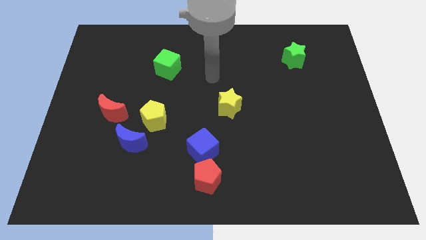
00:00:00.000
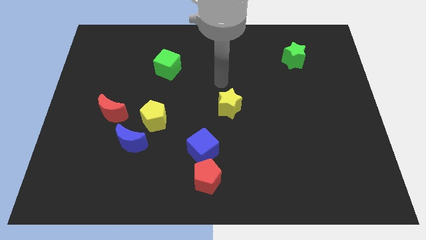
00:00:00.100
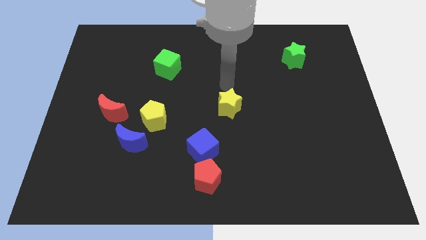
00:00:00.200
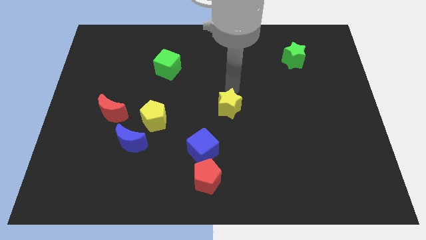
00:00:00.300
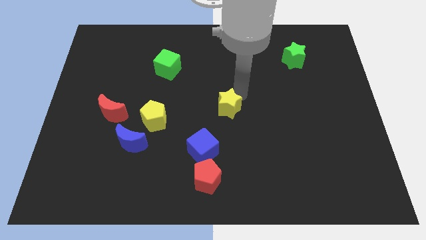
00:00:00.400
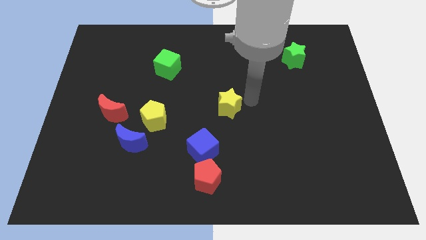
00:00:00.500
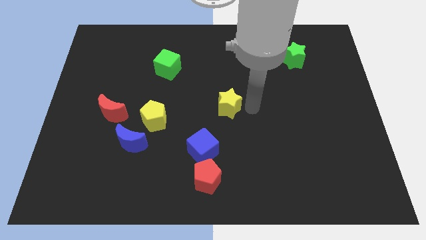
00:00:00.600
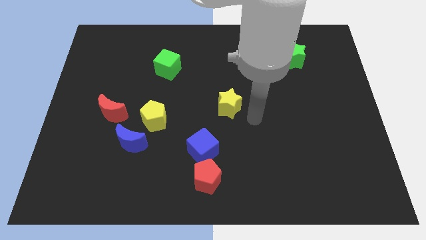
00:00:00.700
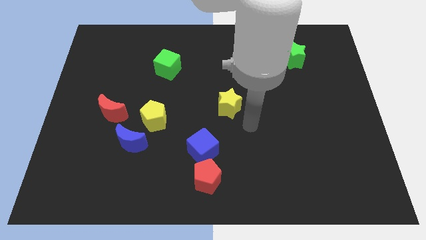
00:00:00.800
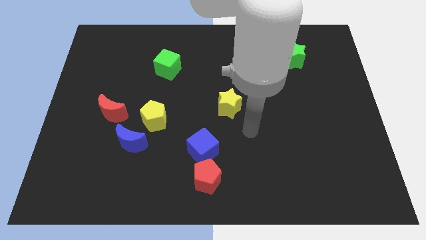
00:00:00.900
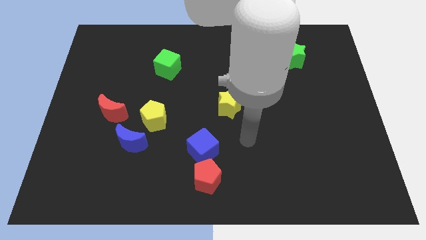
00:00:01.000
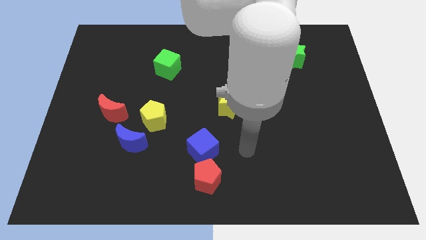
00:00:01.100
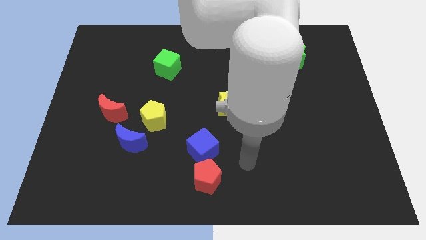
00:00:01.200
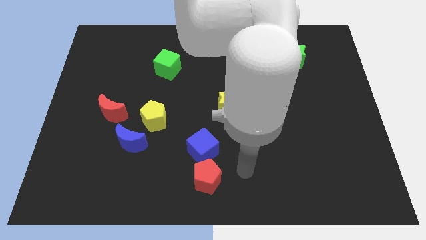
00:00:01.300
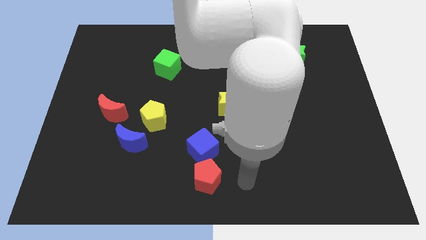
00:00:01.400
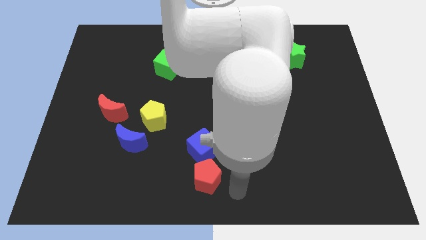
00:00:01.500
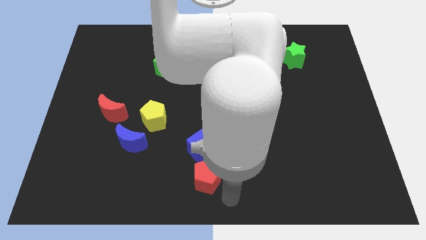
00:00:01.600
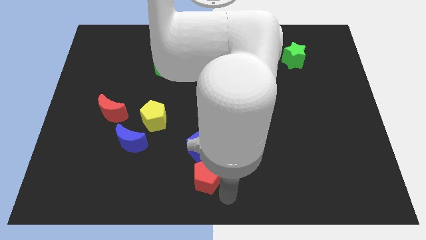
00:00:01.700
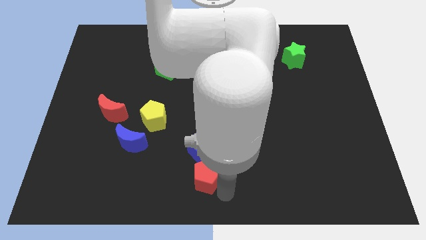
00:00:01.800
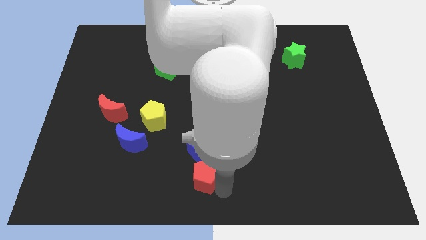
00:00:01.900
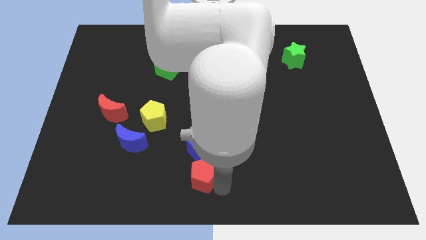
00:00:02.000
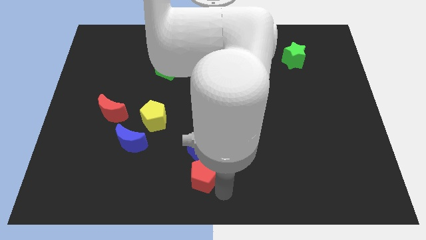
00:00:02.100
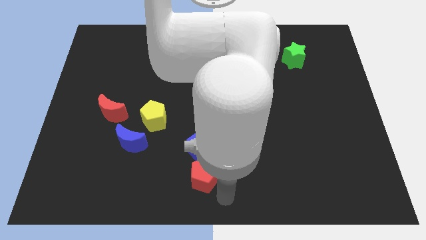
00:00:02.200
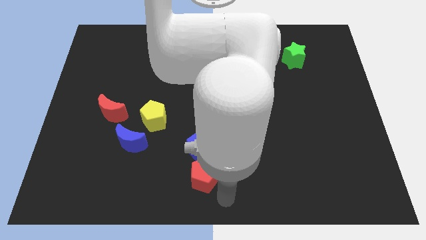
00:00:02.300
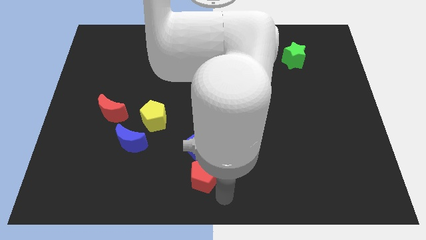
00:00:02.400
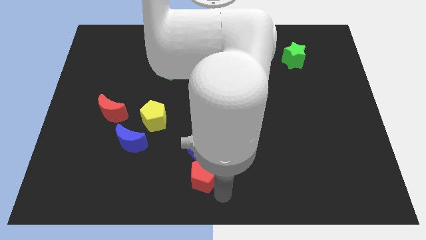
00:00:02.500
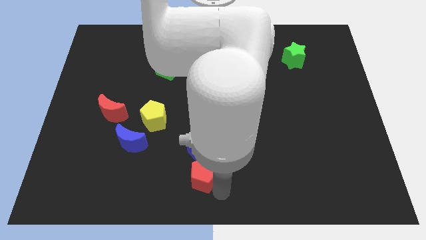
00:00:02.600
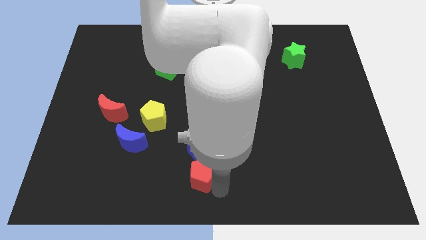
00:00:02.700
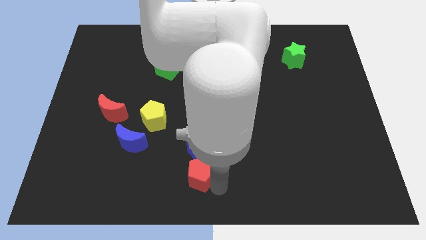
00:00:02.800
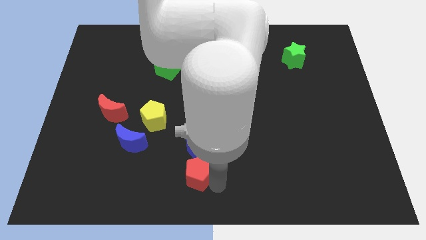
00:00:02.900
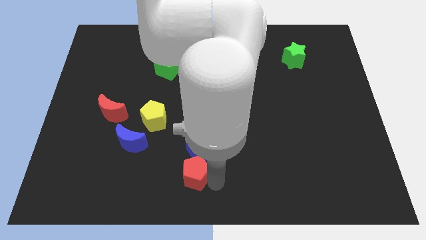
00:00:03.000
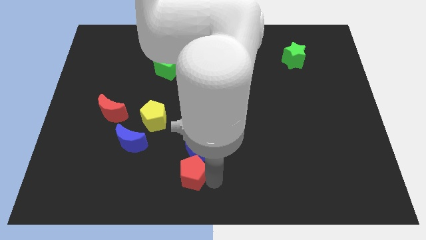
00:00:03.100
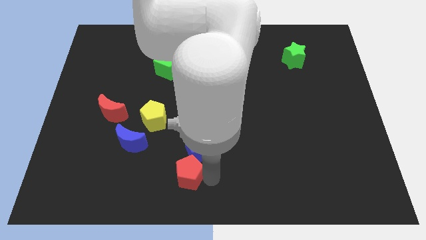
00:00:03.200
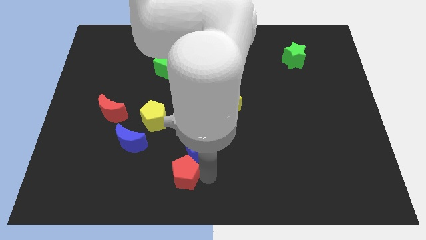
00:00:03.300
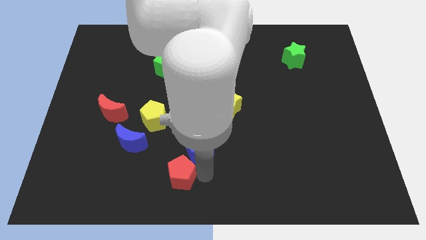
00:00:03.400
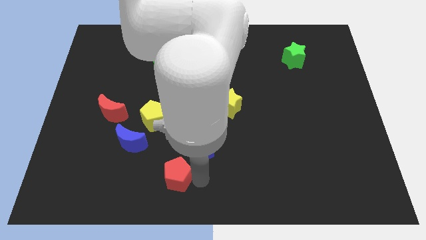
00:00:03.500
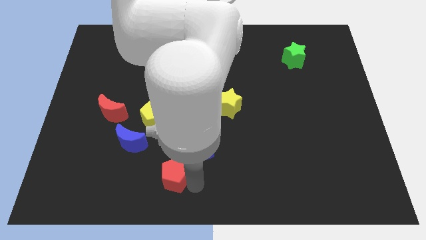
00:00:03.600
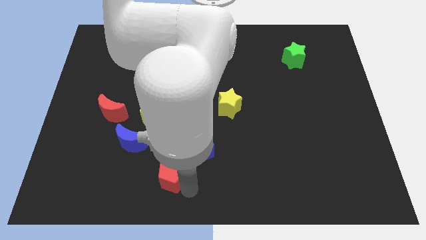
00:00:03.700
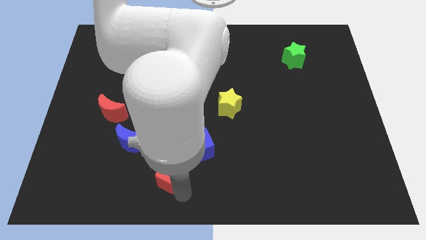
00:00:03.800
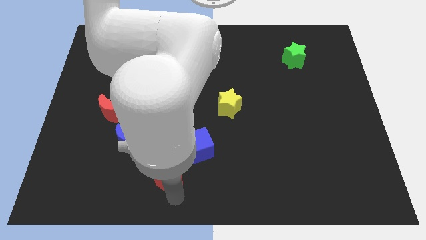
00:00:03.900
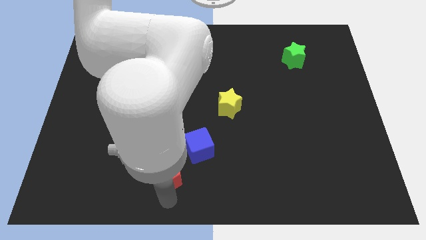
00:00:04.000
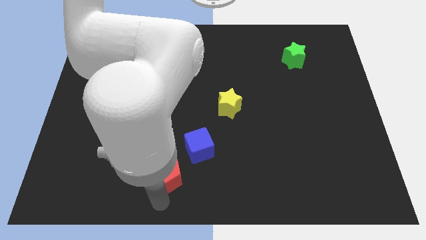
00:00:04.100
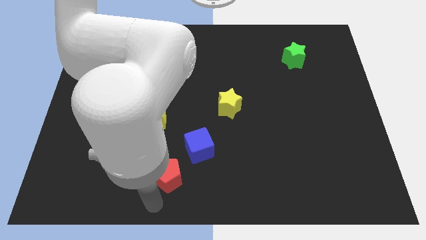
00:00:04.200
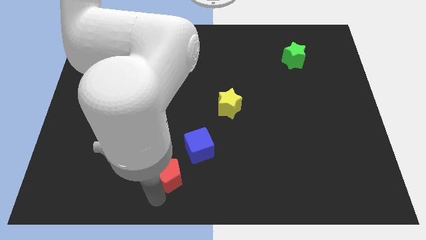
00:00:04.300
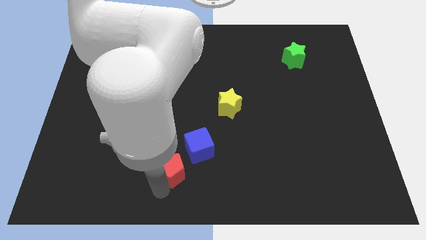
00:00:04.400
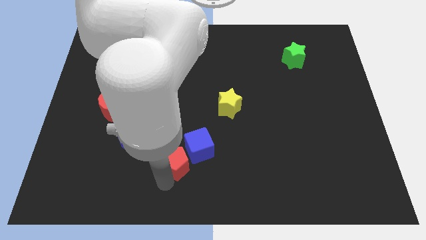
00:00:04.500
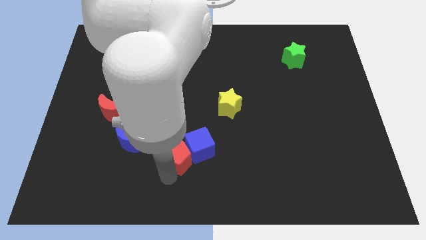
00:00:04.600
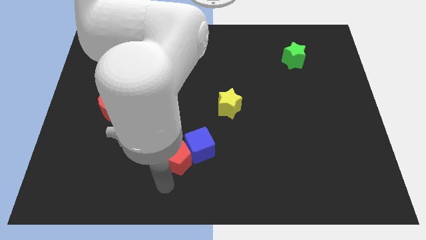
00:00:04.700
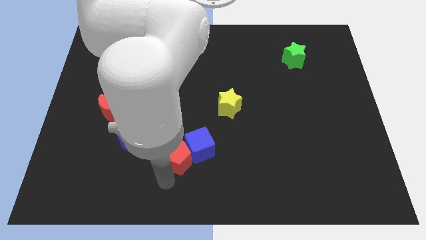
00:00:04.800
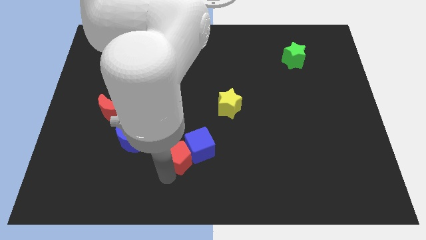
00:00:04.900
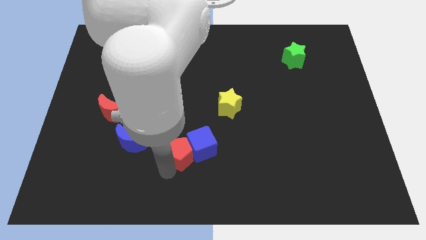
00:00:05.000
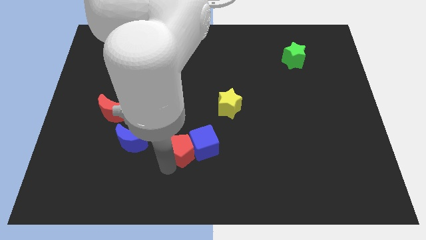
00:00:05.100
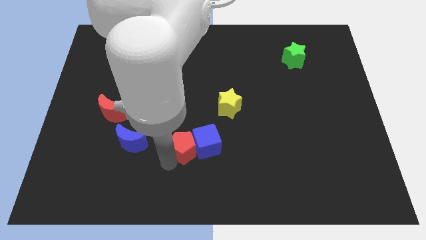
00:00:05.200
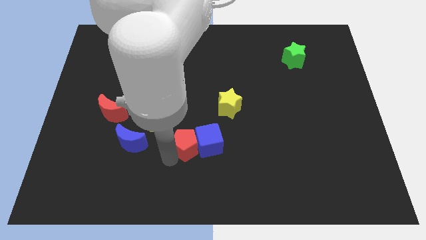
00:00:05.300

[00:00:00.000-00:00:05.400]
slide the red pentagon upwards somewhat

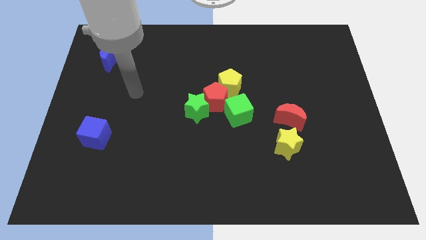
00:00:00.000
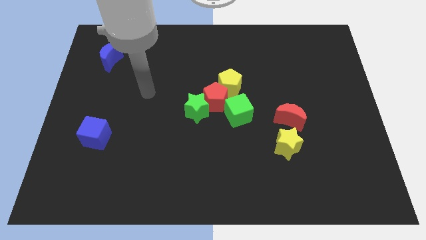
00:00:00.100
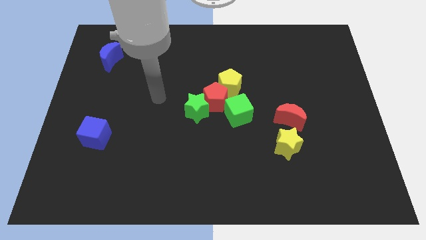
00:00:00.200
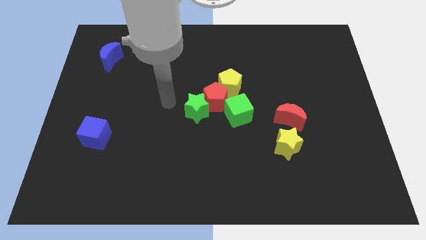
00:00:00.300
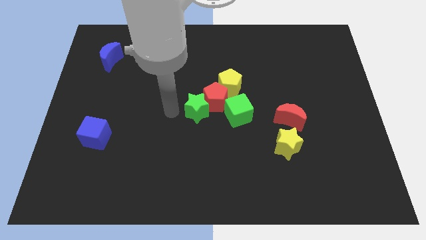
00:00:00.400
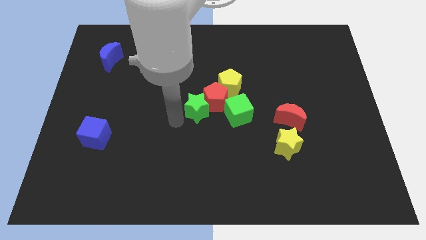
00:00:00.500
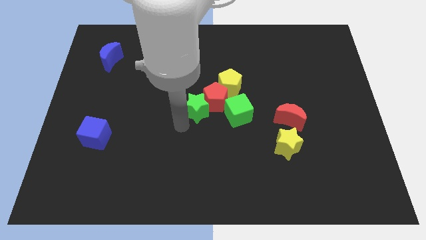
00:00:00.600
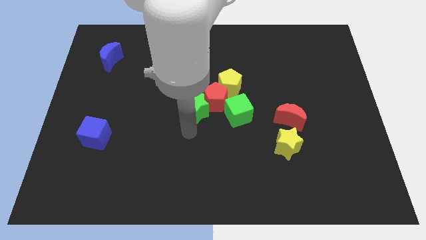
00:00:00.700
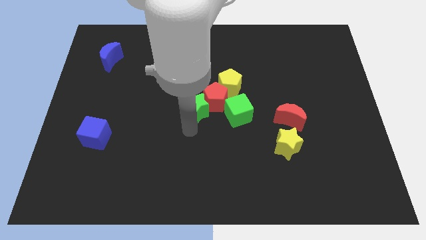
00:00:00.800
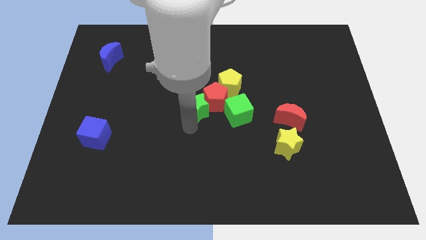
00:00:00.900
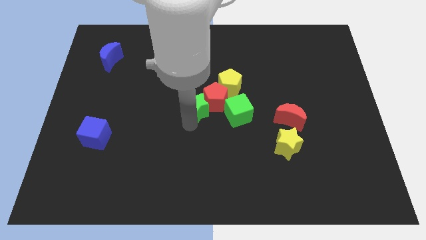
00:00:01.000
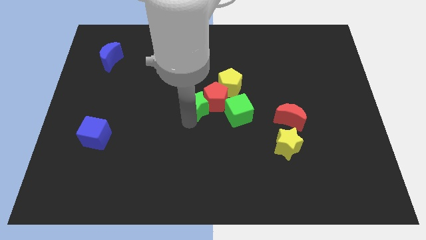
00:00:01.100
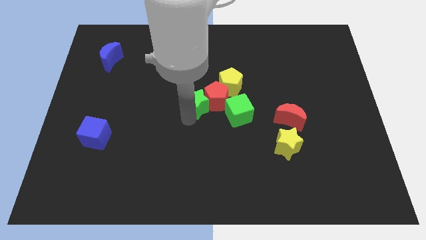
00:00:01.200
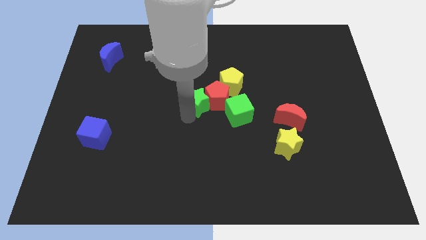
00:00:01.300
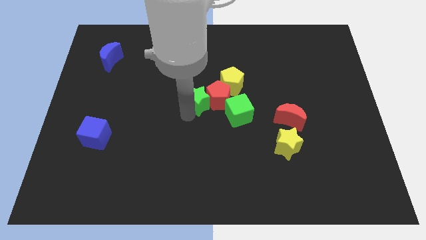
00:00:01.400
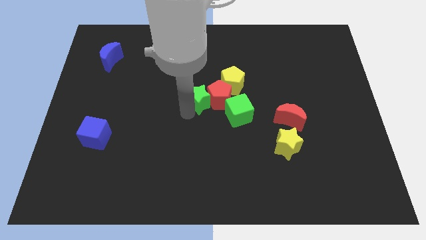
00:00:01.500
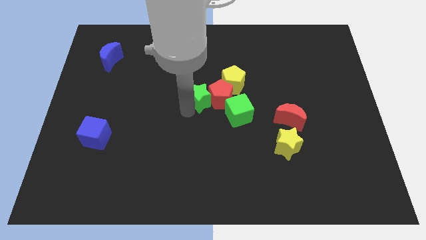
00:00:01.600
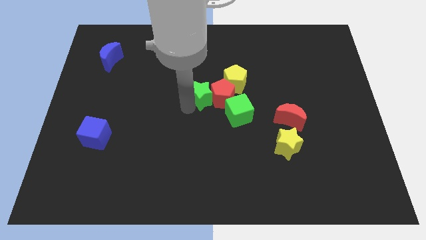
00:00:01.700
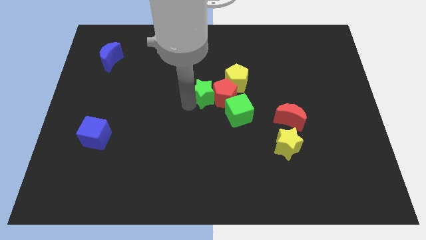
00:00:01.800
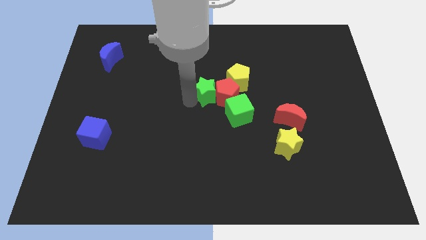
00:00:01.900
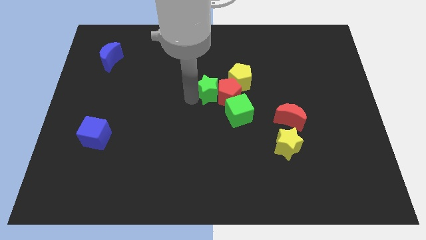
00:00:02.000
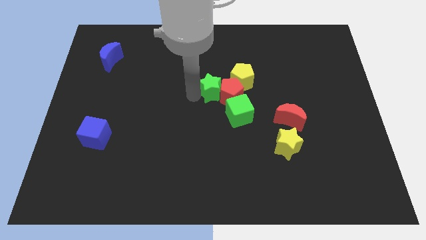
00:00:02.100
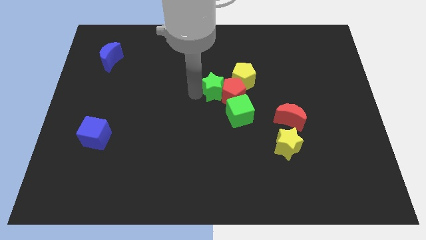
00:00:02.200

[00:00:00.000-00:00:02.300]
push the green star upwards and right somewhat

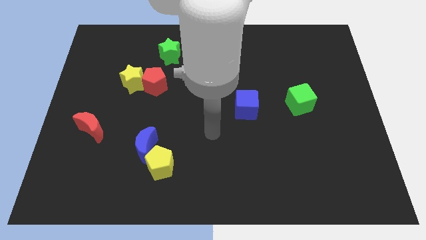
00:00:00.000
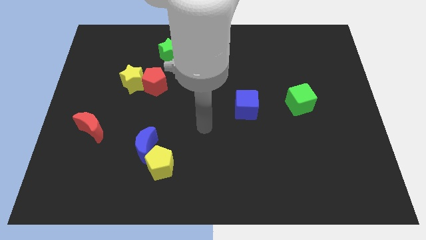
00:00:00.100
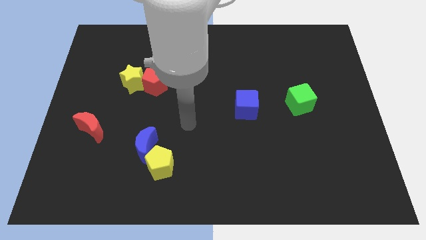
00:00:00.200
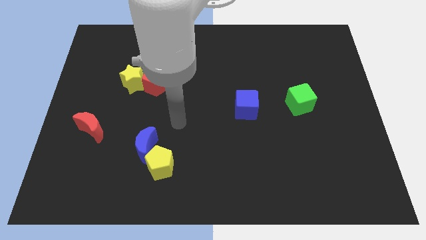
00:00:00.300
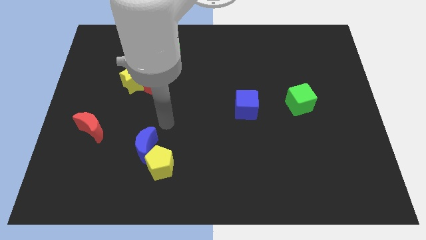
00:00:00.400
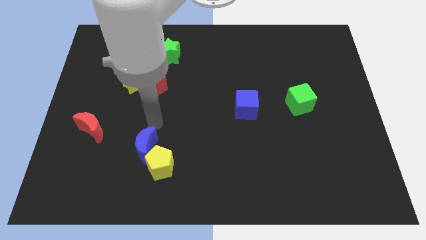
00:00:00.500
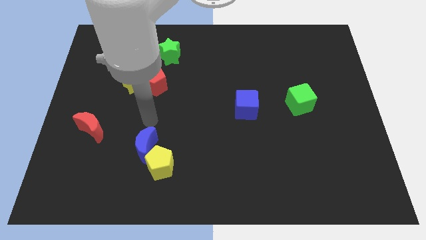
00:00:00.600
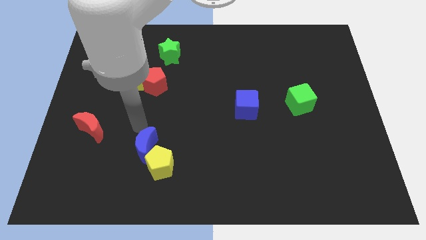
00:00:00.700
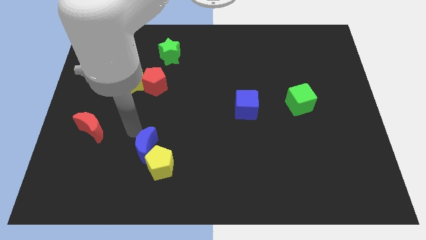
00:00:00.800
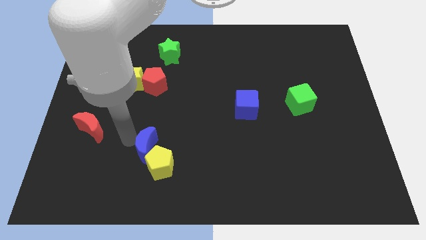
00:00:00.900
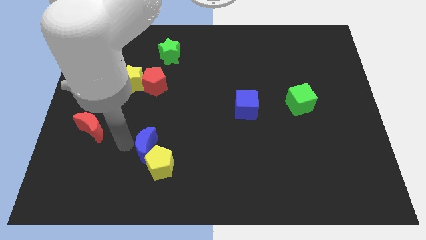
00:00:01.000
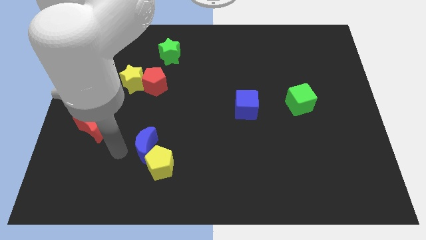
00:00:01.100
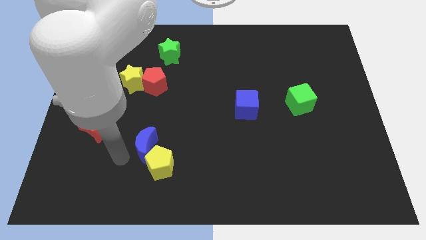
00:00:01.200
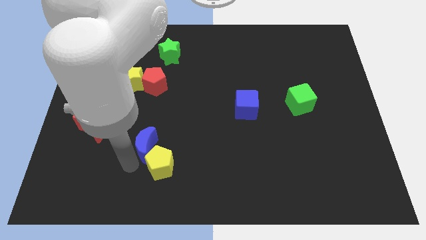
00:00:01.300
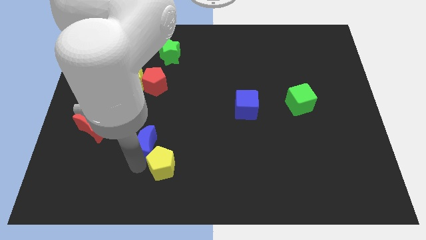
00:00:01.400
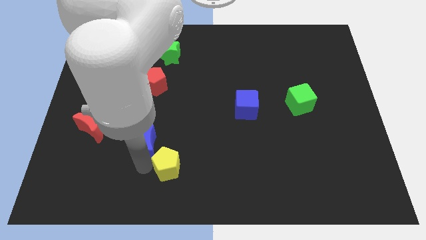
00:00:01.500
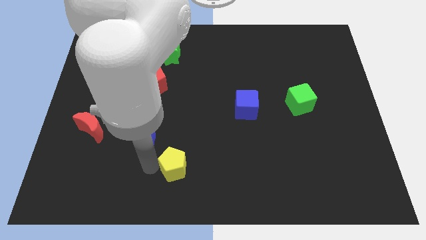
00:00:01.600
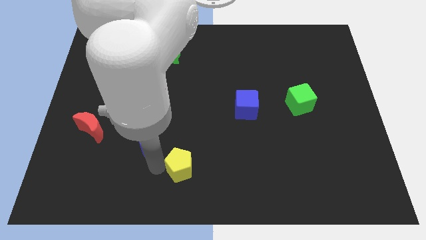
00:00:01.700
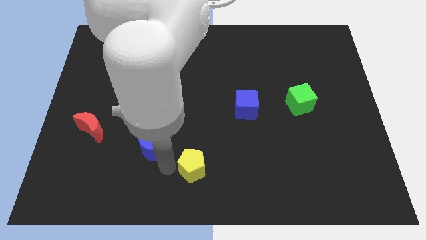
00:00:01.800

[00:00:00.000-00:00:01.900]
slightly push the yellow pentagon to the right
